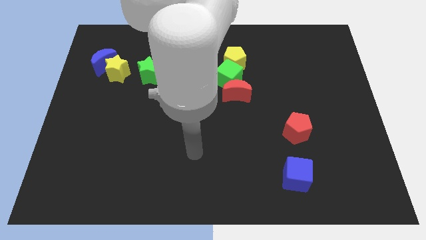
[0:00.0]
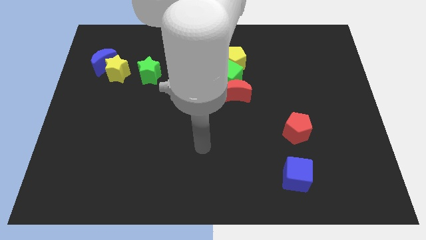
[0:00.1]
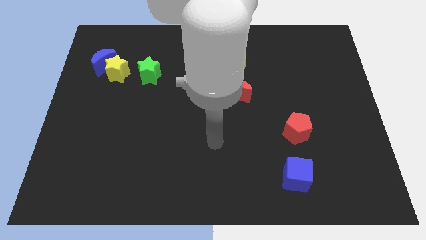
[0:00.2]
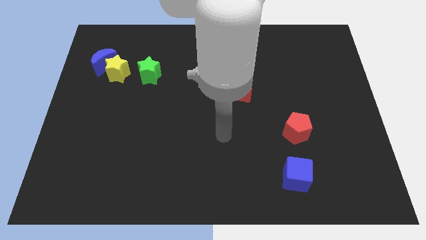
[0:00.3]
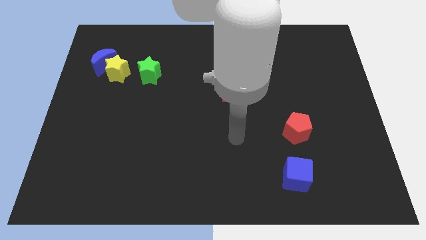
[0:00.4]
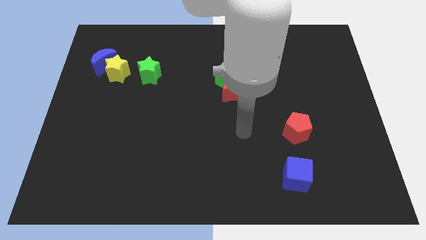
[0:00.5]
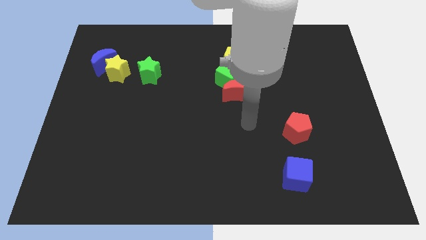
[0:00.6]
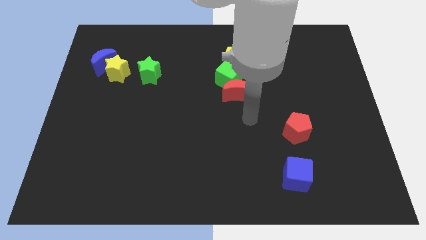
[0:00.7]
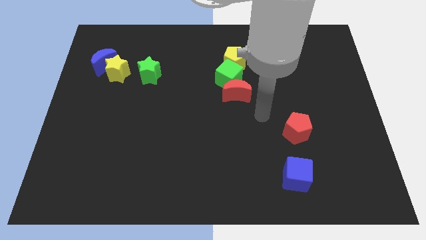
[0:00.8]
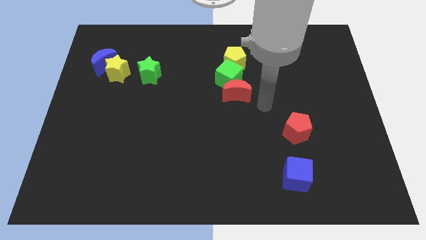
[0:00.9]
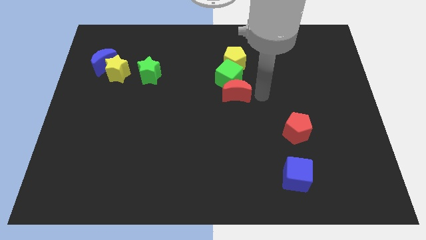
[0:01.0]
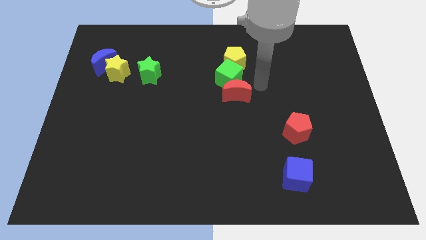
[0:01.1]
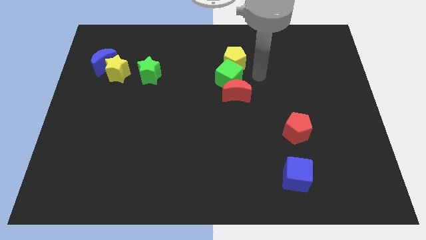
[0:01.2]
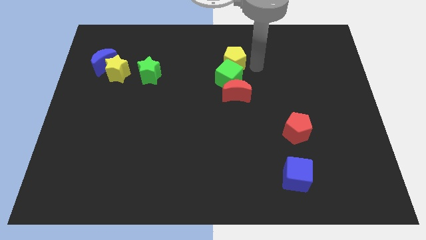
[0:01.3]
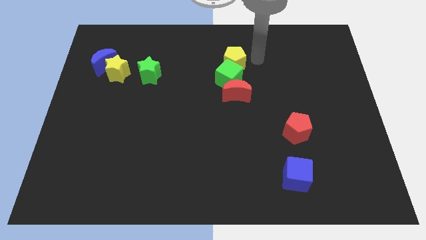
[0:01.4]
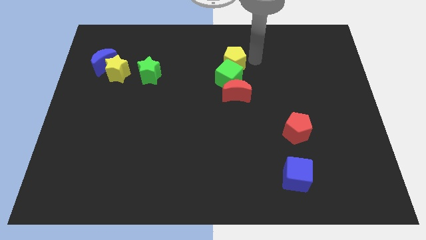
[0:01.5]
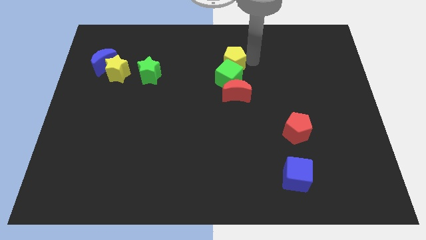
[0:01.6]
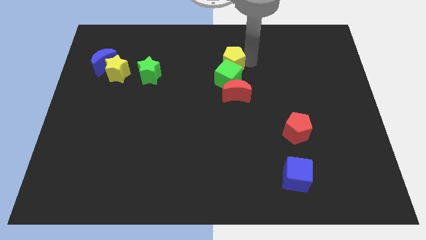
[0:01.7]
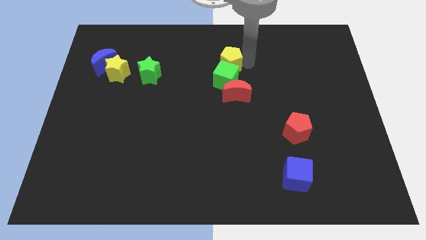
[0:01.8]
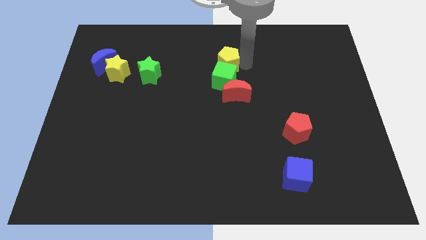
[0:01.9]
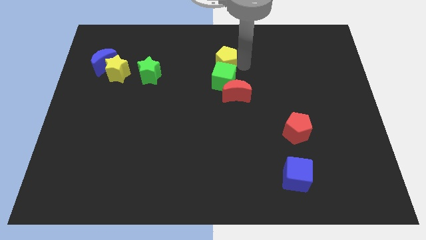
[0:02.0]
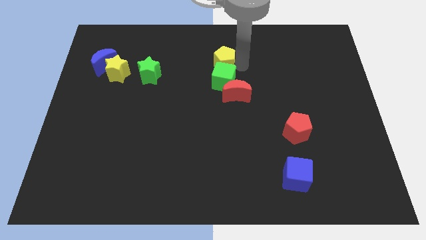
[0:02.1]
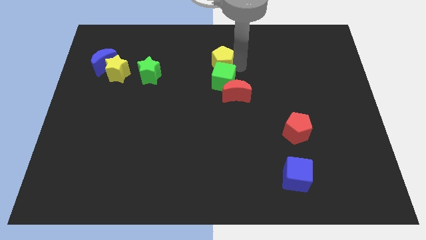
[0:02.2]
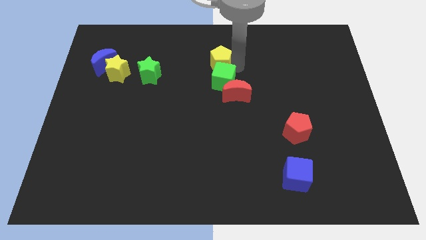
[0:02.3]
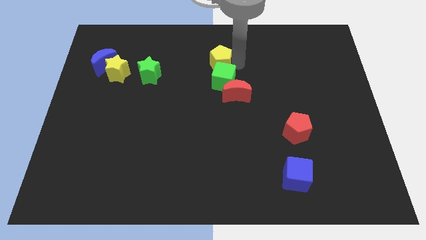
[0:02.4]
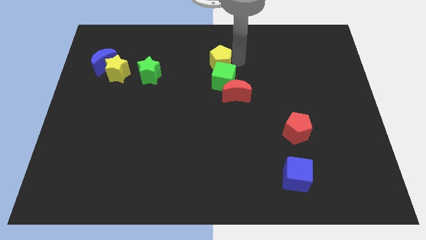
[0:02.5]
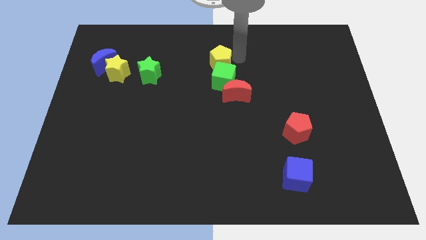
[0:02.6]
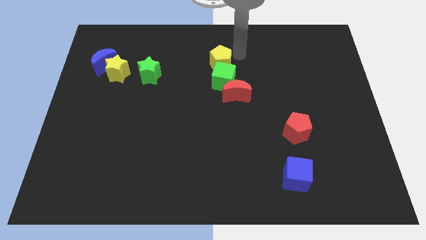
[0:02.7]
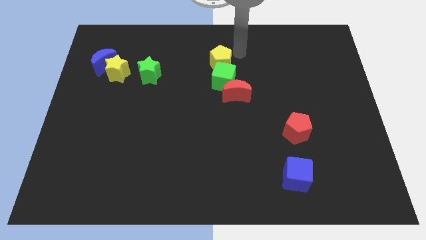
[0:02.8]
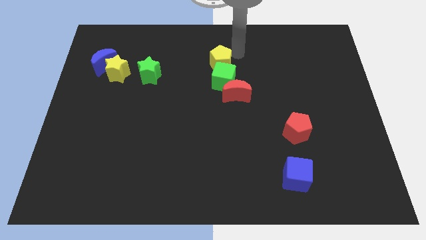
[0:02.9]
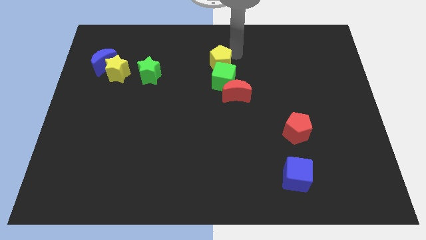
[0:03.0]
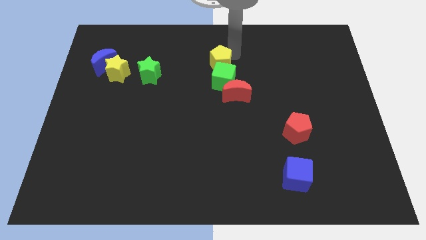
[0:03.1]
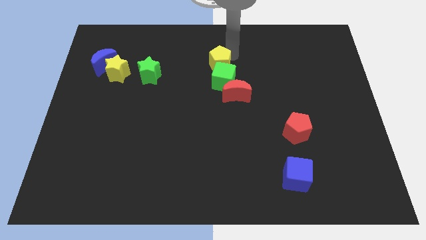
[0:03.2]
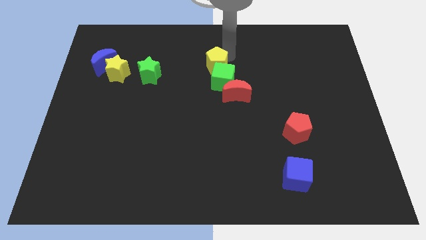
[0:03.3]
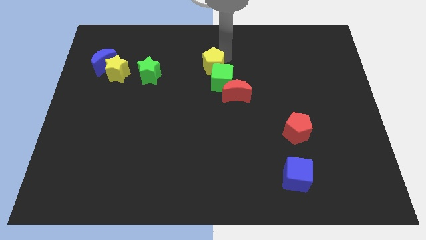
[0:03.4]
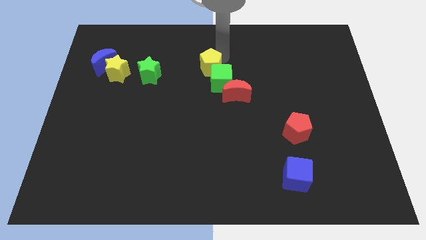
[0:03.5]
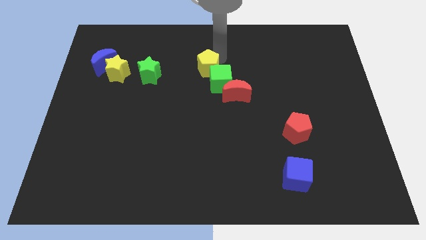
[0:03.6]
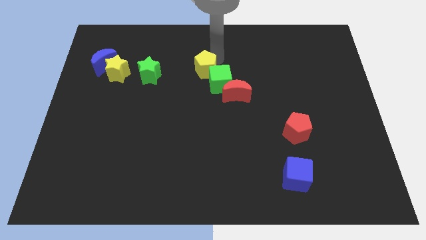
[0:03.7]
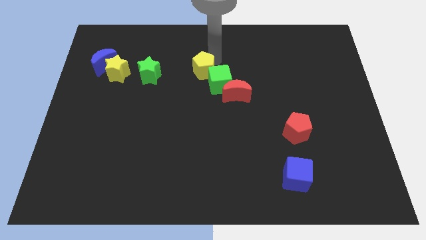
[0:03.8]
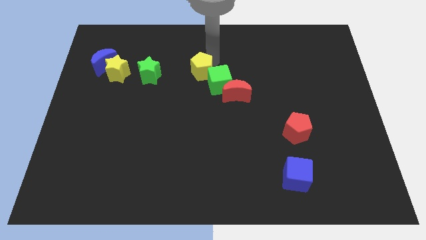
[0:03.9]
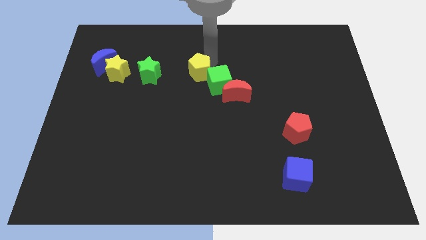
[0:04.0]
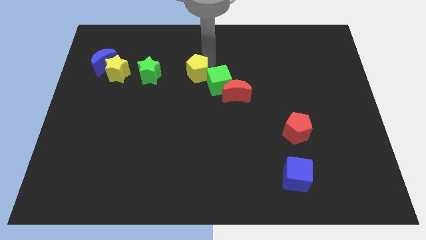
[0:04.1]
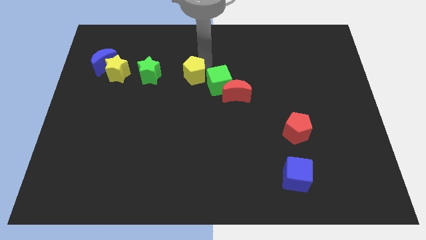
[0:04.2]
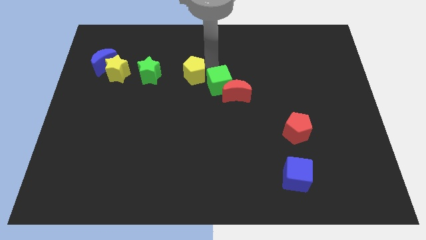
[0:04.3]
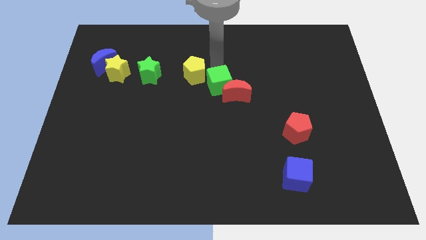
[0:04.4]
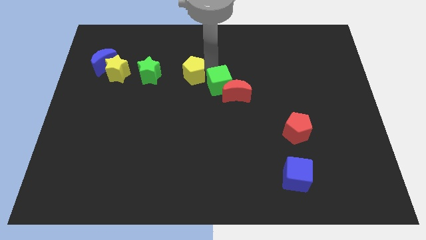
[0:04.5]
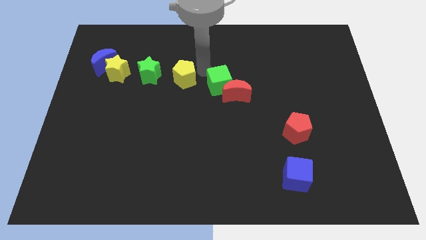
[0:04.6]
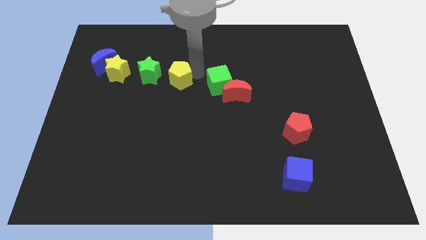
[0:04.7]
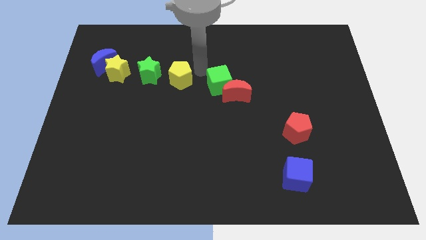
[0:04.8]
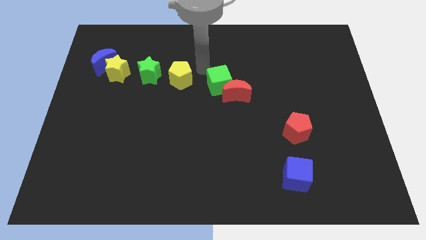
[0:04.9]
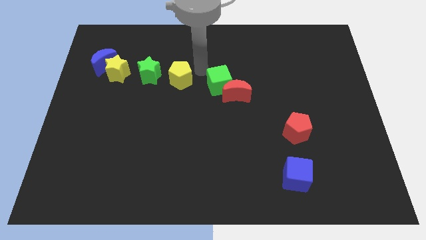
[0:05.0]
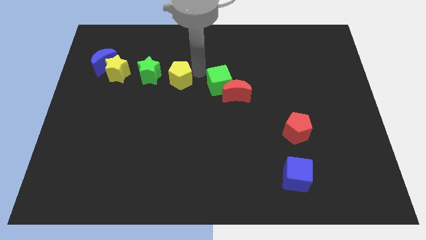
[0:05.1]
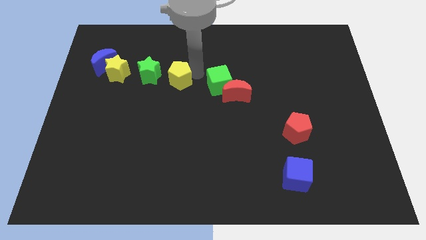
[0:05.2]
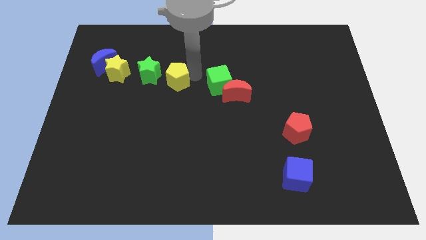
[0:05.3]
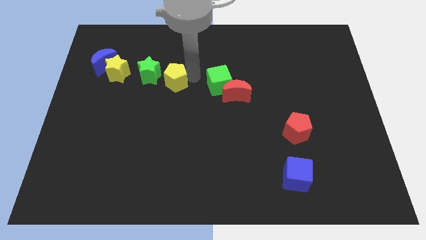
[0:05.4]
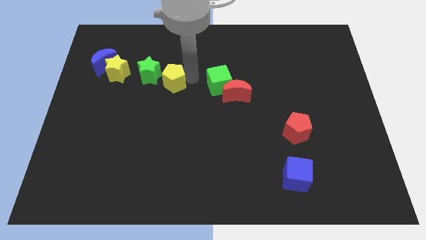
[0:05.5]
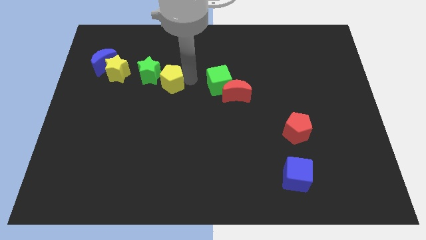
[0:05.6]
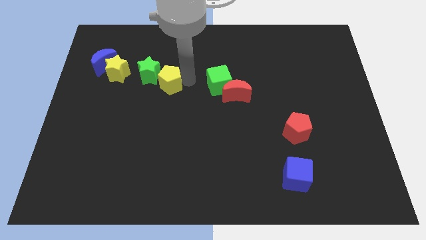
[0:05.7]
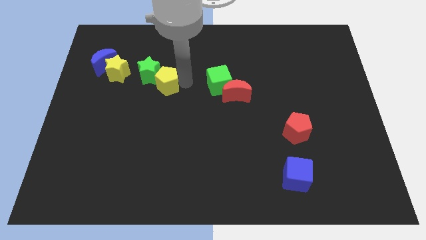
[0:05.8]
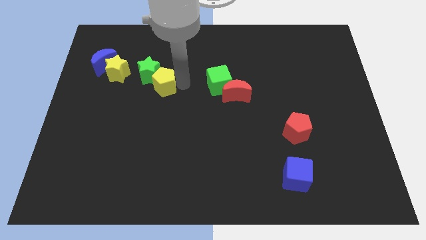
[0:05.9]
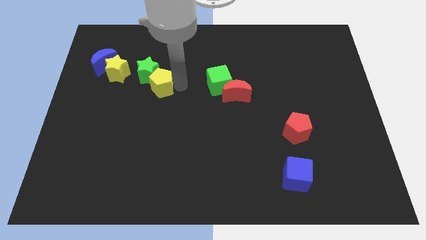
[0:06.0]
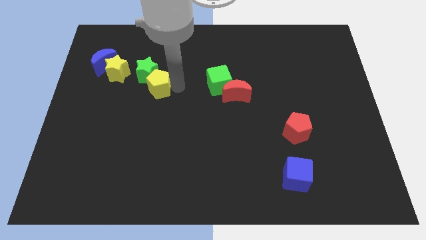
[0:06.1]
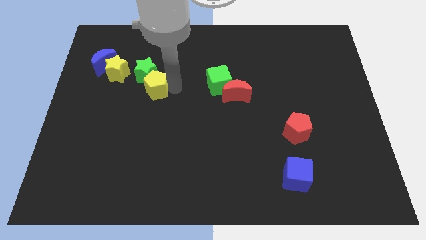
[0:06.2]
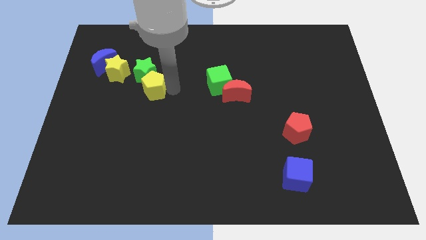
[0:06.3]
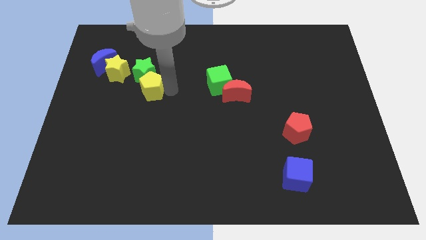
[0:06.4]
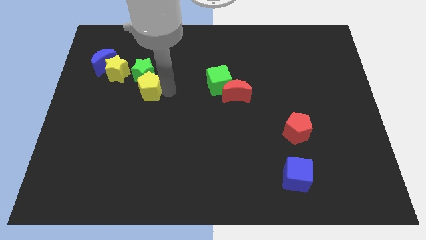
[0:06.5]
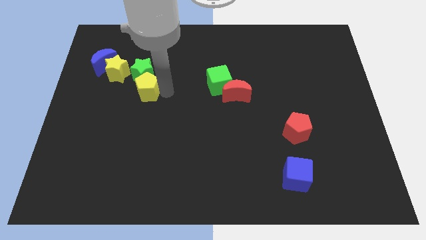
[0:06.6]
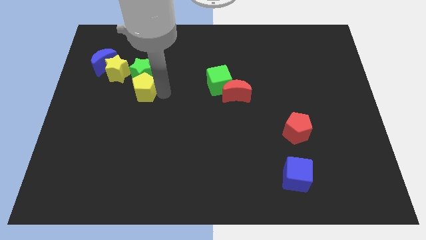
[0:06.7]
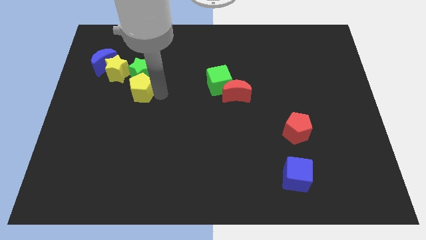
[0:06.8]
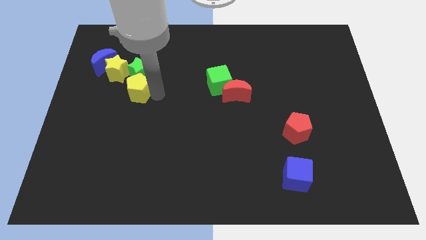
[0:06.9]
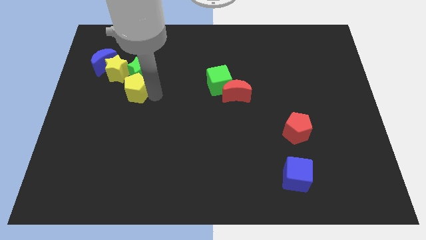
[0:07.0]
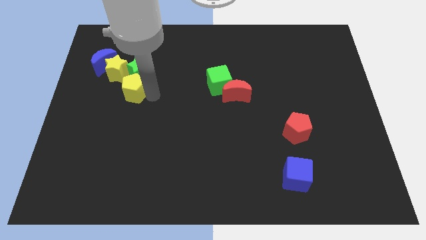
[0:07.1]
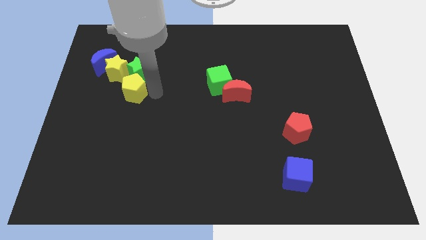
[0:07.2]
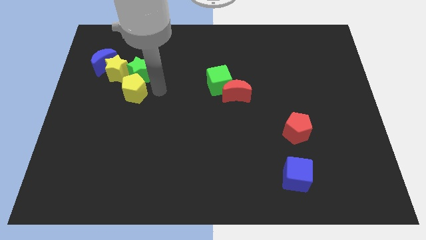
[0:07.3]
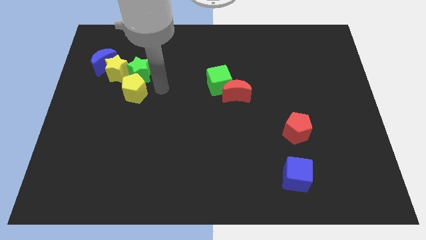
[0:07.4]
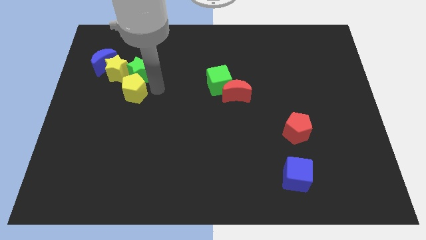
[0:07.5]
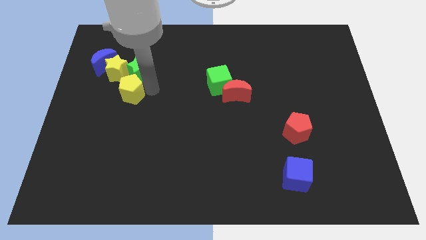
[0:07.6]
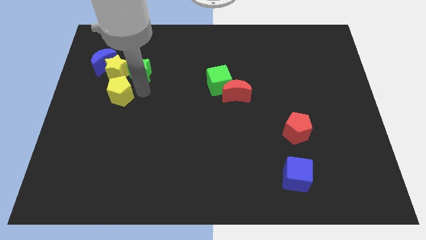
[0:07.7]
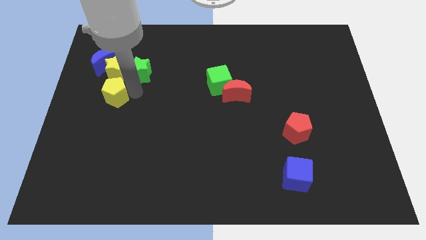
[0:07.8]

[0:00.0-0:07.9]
put the yellow pentagon to the bottom of the blue moon
